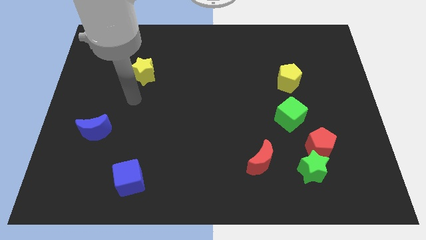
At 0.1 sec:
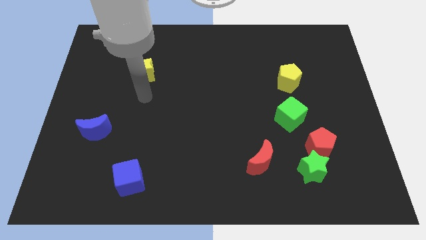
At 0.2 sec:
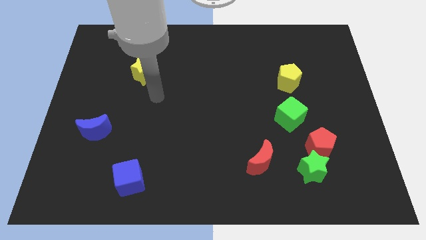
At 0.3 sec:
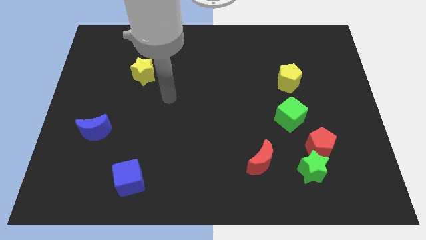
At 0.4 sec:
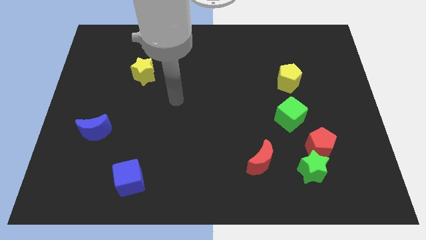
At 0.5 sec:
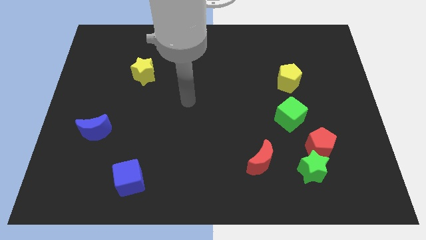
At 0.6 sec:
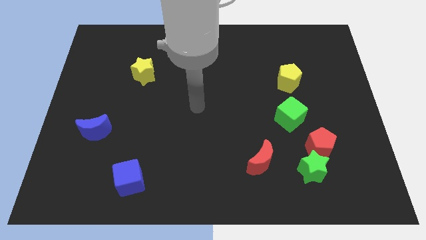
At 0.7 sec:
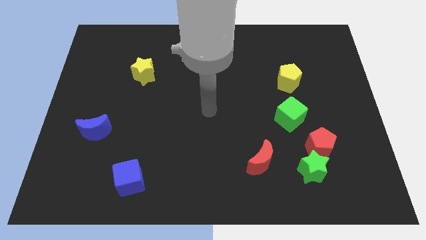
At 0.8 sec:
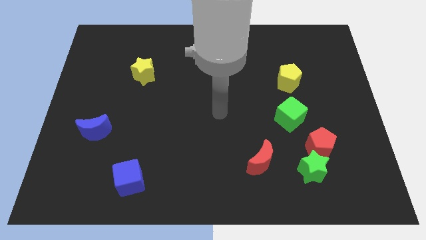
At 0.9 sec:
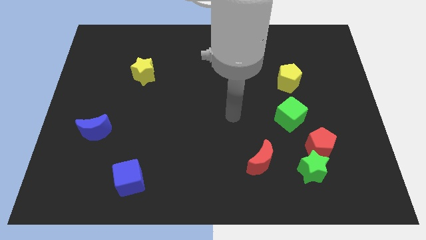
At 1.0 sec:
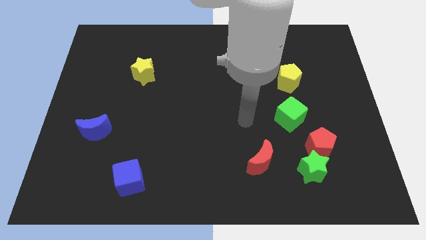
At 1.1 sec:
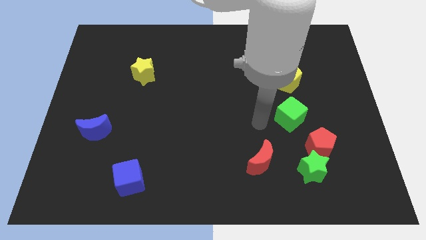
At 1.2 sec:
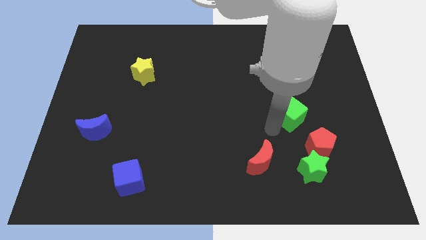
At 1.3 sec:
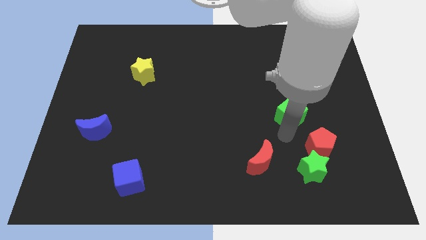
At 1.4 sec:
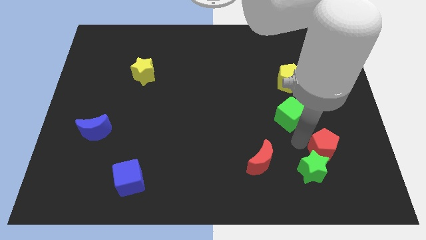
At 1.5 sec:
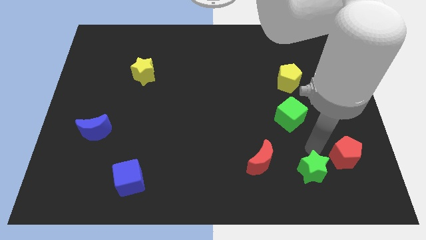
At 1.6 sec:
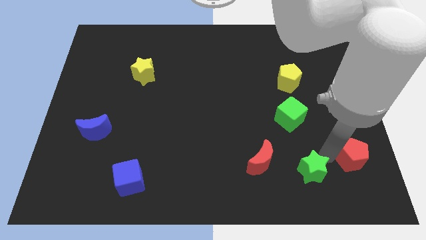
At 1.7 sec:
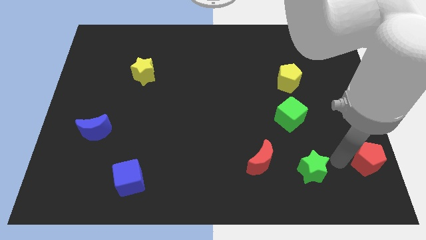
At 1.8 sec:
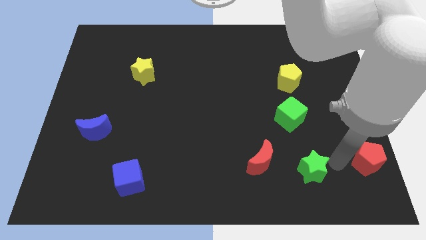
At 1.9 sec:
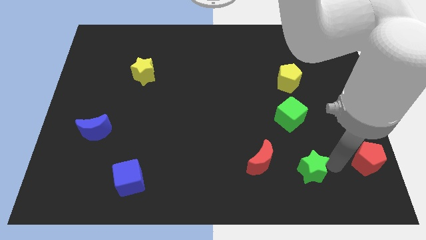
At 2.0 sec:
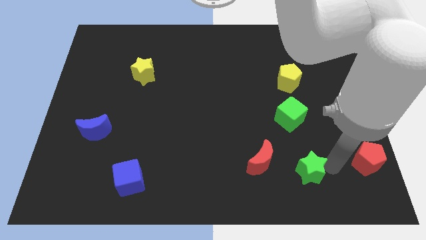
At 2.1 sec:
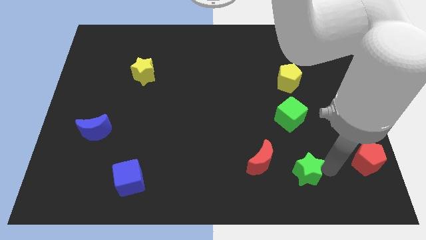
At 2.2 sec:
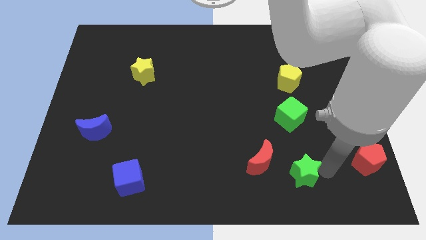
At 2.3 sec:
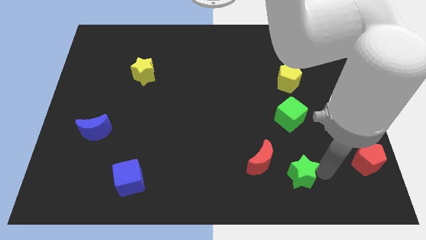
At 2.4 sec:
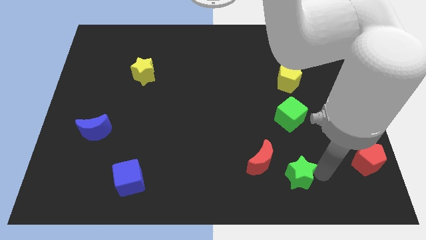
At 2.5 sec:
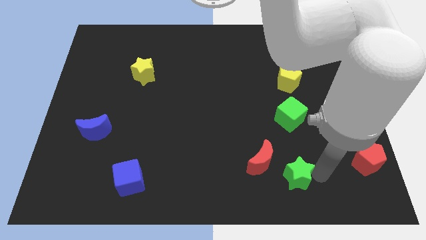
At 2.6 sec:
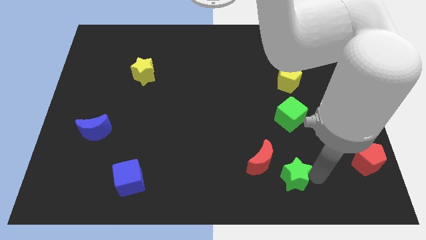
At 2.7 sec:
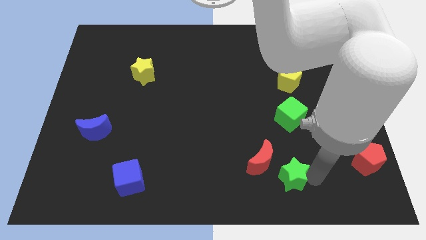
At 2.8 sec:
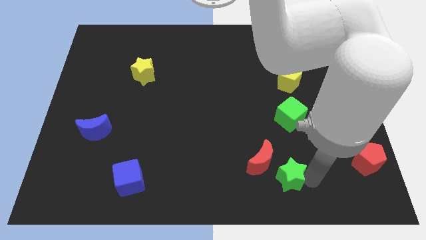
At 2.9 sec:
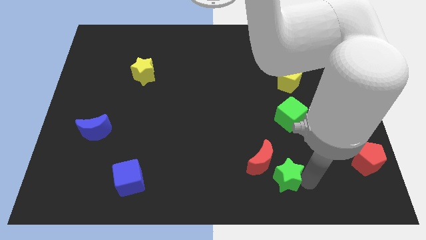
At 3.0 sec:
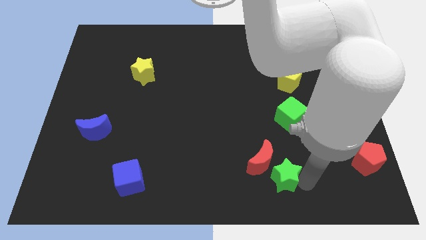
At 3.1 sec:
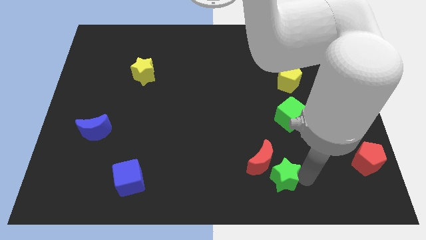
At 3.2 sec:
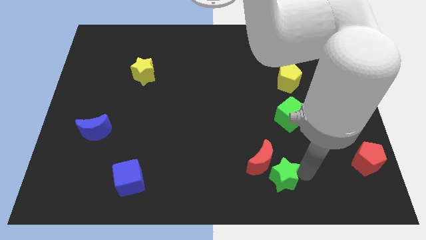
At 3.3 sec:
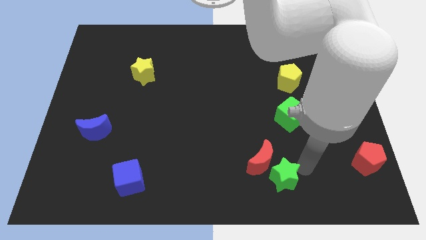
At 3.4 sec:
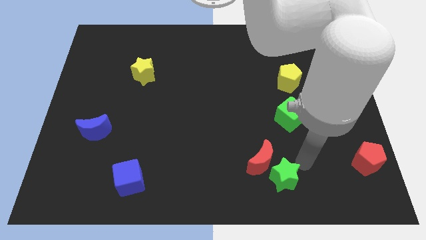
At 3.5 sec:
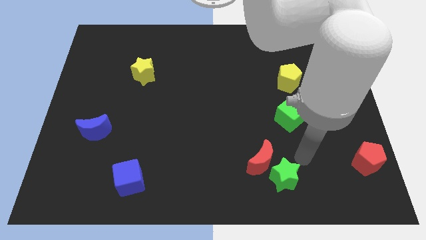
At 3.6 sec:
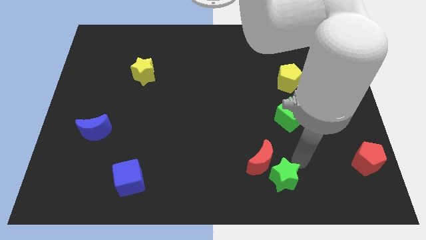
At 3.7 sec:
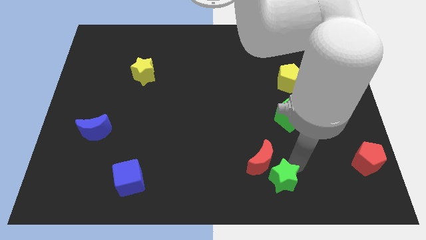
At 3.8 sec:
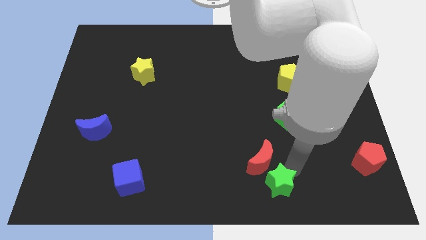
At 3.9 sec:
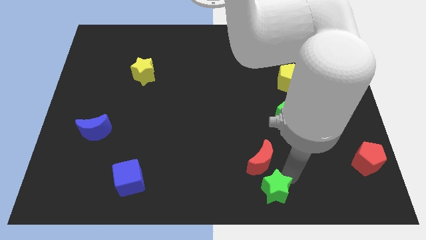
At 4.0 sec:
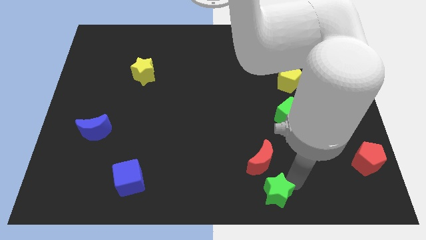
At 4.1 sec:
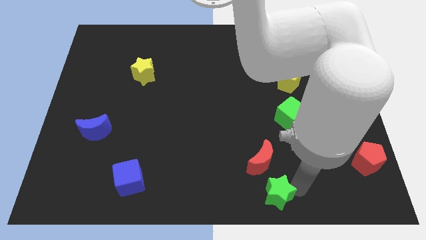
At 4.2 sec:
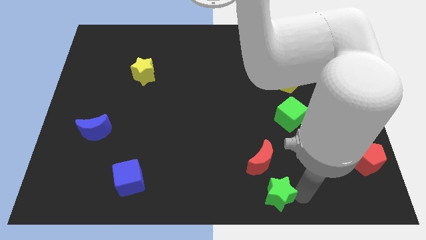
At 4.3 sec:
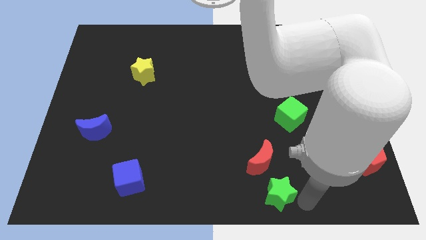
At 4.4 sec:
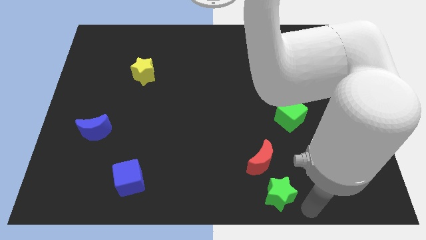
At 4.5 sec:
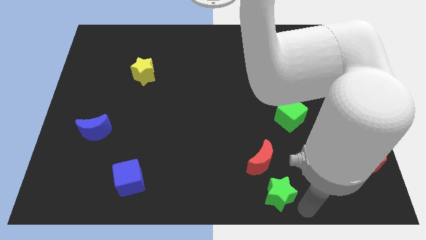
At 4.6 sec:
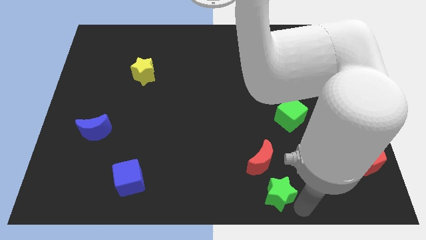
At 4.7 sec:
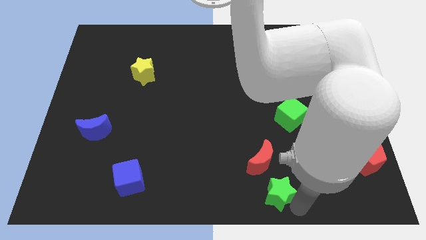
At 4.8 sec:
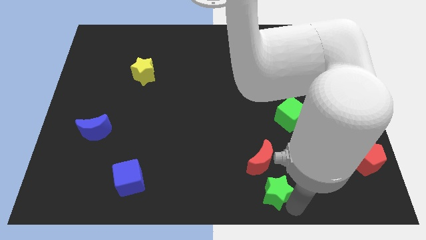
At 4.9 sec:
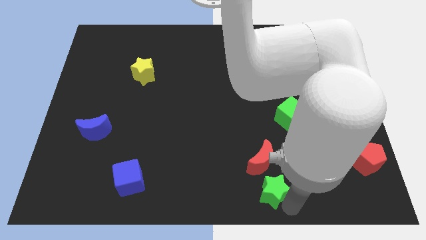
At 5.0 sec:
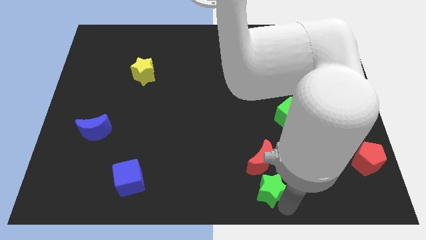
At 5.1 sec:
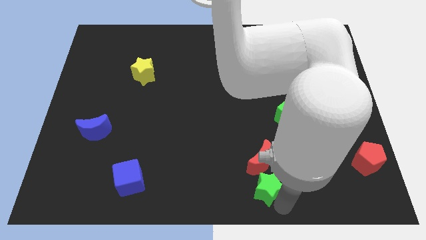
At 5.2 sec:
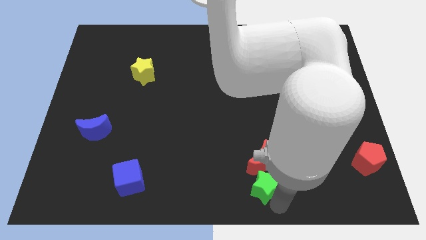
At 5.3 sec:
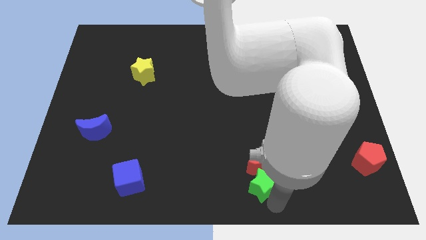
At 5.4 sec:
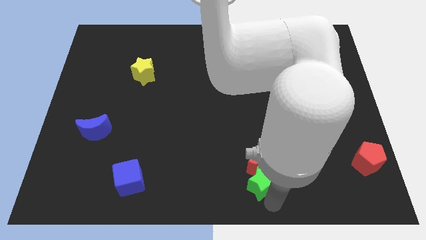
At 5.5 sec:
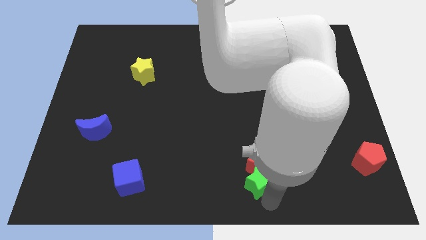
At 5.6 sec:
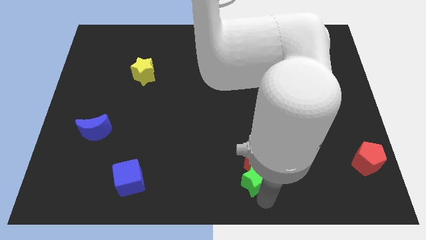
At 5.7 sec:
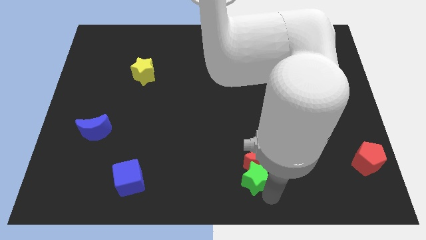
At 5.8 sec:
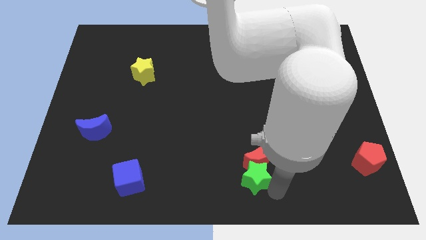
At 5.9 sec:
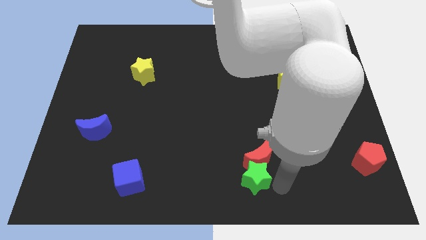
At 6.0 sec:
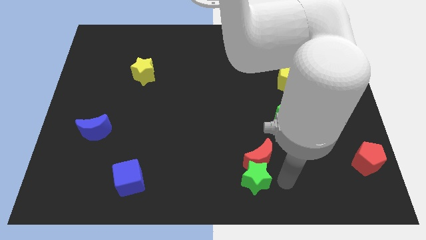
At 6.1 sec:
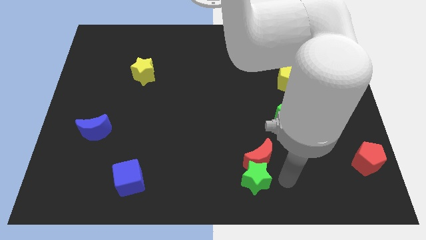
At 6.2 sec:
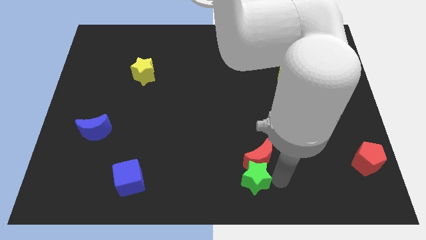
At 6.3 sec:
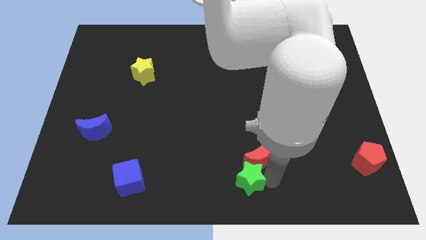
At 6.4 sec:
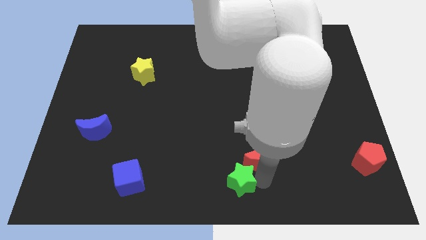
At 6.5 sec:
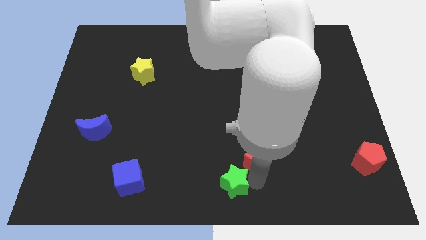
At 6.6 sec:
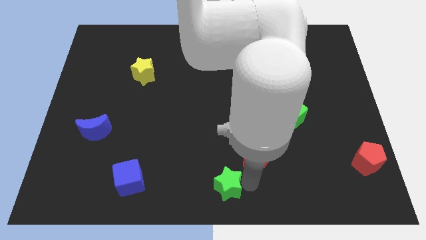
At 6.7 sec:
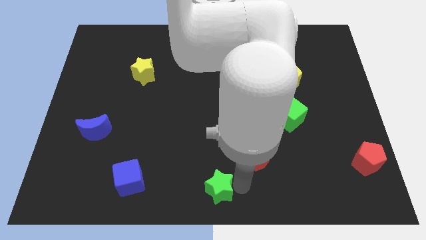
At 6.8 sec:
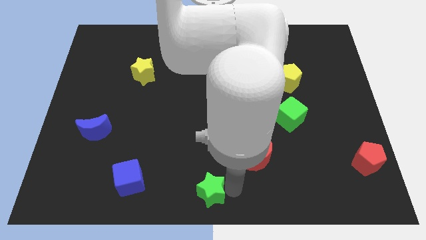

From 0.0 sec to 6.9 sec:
push the green star left

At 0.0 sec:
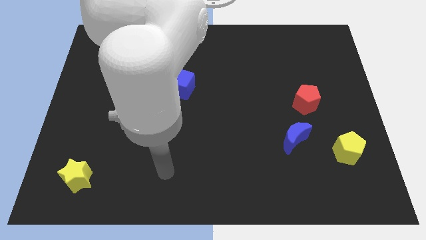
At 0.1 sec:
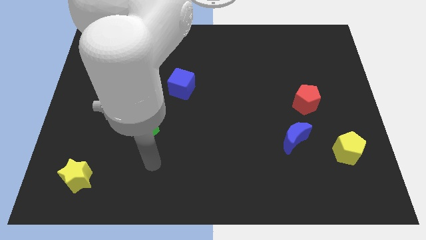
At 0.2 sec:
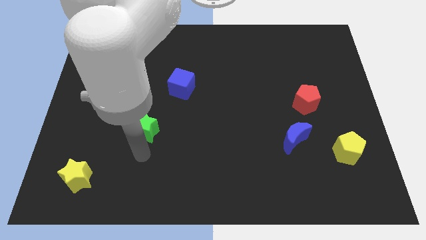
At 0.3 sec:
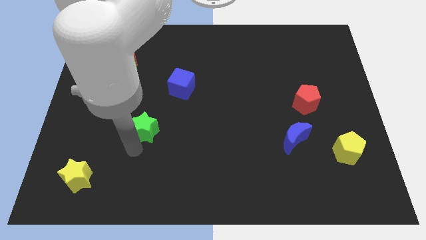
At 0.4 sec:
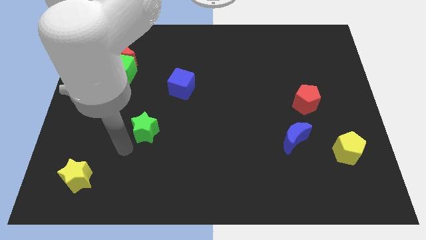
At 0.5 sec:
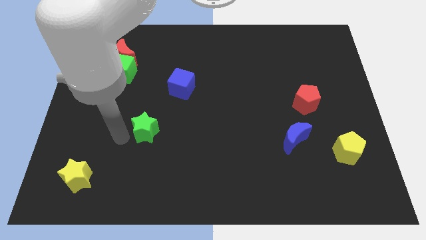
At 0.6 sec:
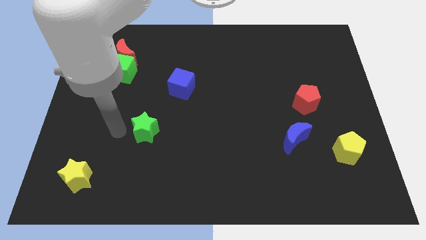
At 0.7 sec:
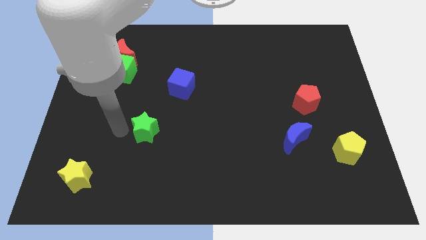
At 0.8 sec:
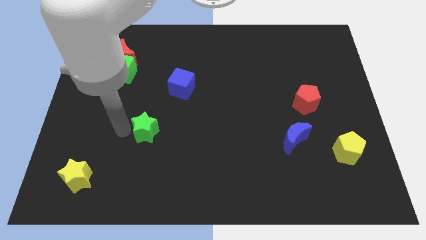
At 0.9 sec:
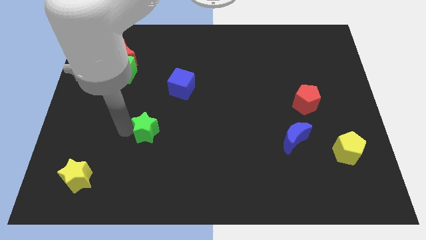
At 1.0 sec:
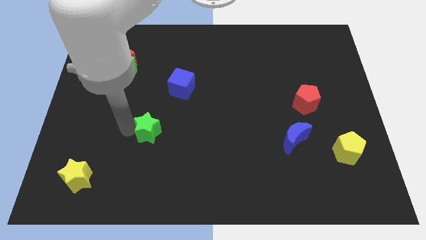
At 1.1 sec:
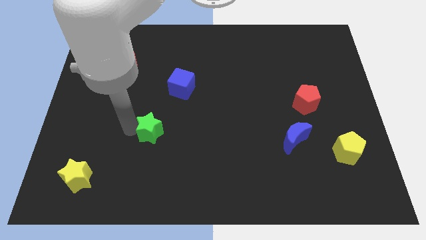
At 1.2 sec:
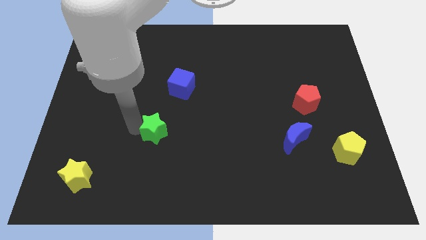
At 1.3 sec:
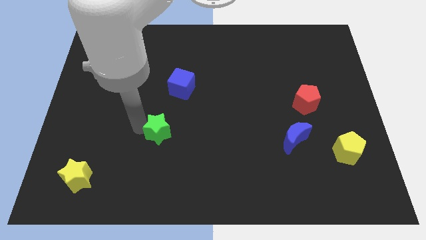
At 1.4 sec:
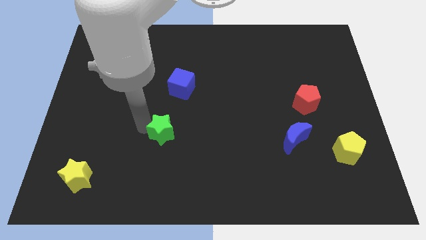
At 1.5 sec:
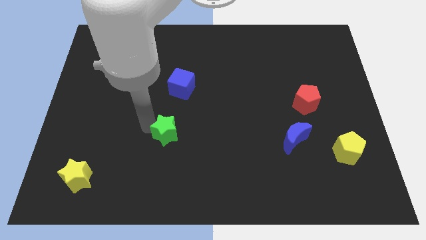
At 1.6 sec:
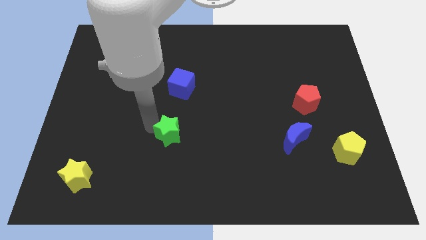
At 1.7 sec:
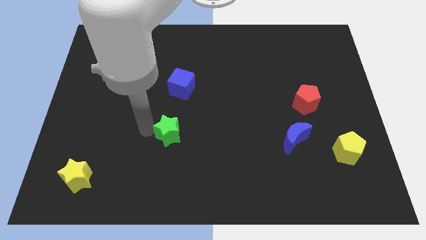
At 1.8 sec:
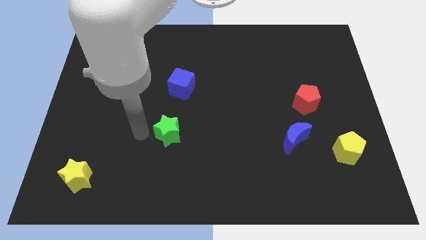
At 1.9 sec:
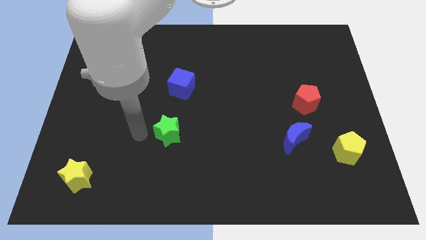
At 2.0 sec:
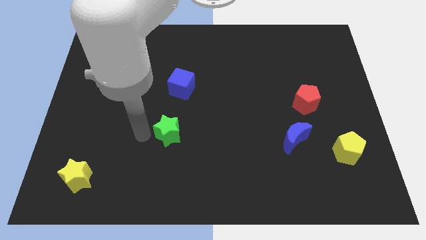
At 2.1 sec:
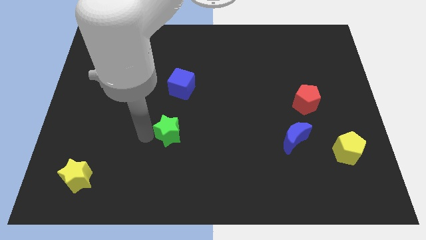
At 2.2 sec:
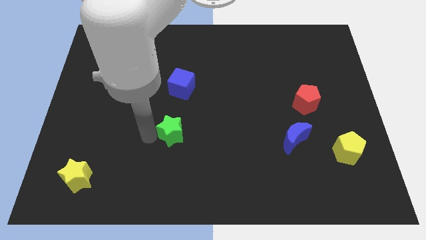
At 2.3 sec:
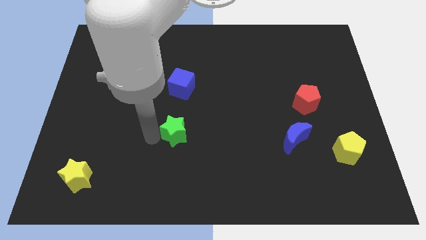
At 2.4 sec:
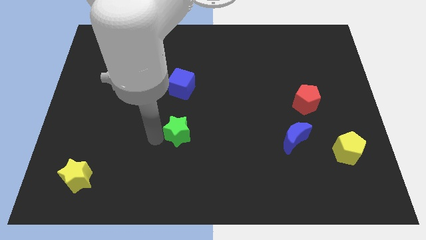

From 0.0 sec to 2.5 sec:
push the green star a bit to the right
